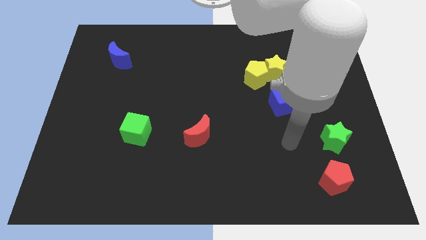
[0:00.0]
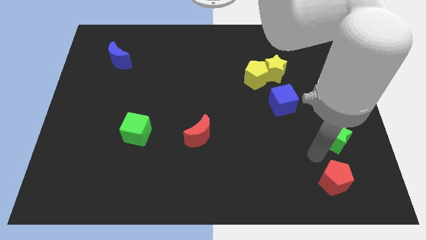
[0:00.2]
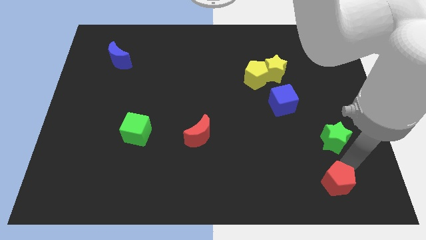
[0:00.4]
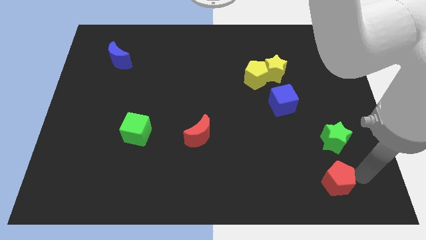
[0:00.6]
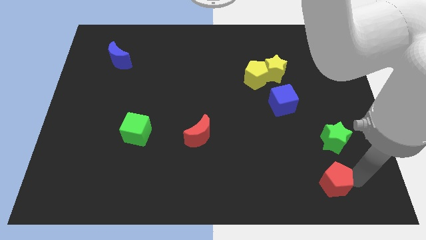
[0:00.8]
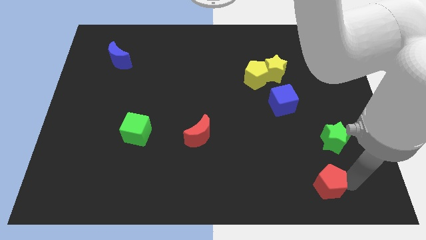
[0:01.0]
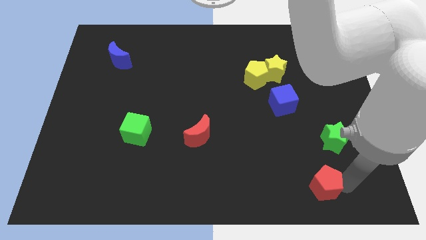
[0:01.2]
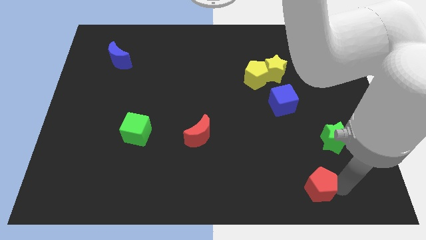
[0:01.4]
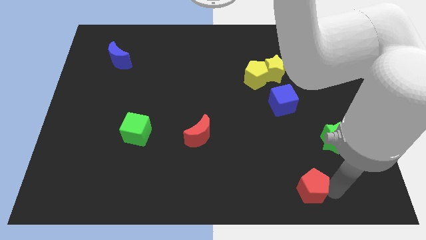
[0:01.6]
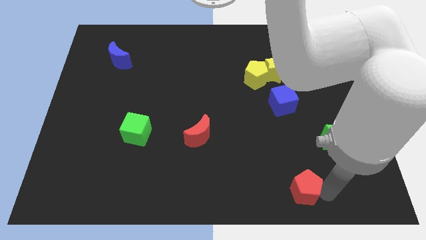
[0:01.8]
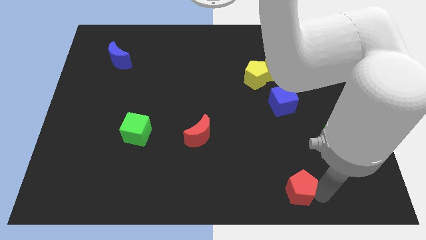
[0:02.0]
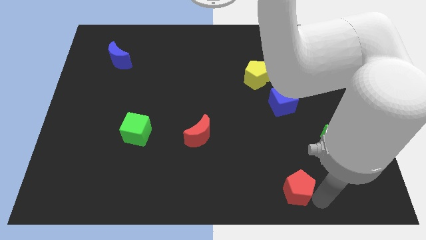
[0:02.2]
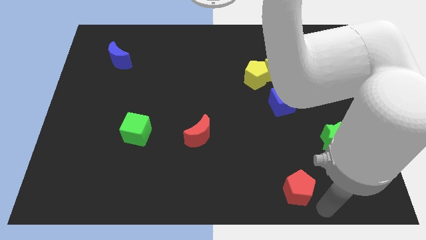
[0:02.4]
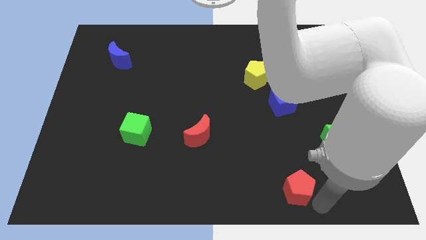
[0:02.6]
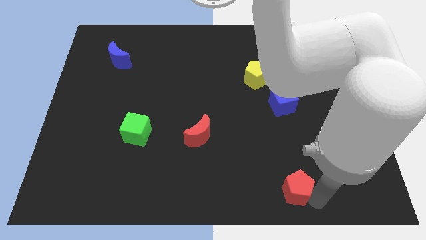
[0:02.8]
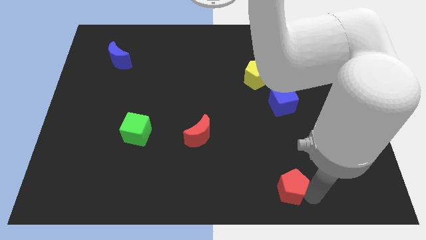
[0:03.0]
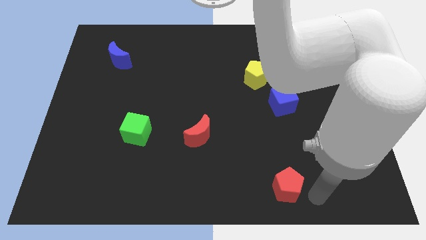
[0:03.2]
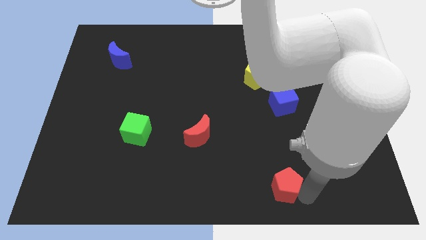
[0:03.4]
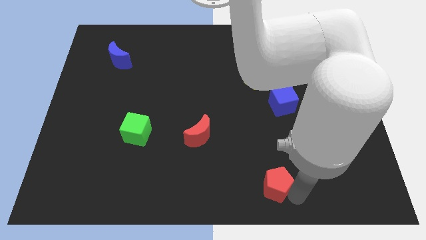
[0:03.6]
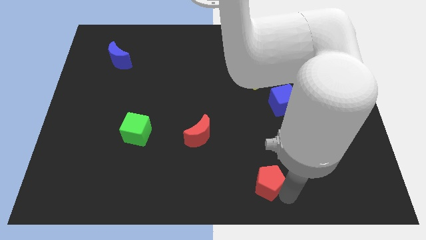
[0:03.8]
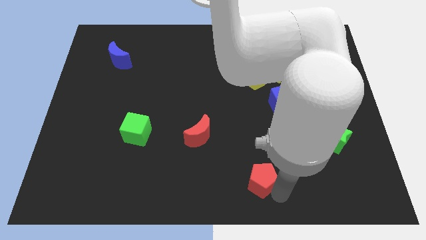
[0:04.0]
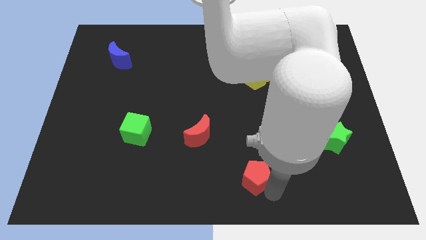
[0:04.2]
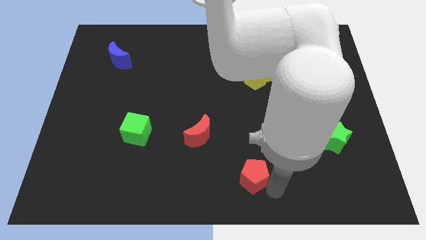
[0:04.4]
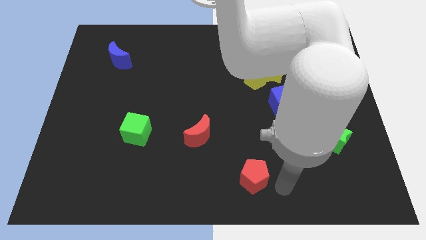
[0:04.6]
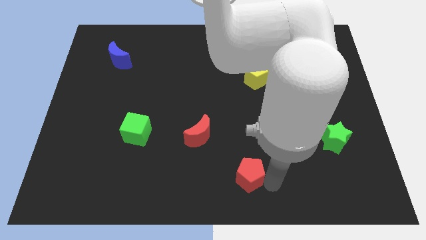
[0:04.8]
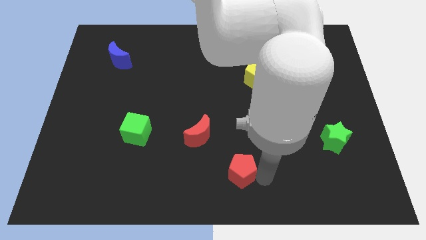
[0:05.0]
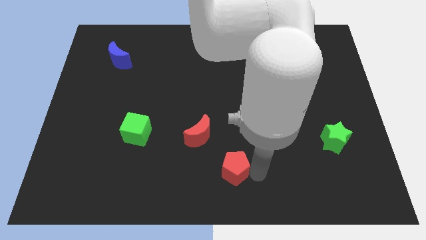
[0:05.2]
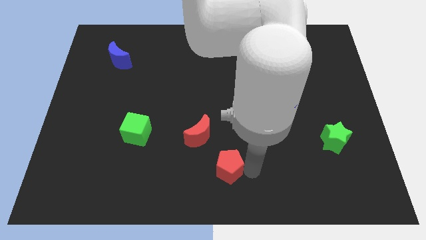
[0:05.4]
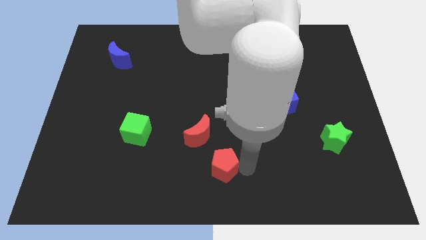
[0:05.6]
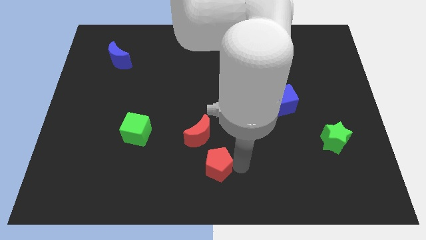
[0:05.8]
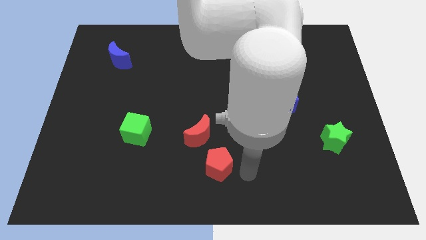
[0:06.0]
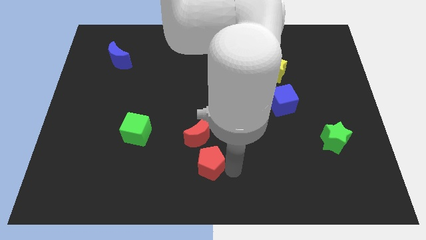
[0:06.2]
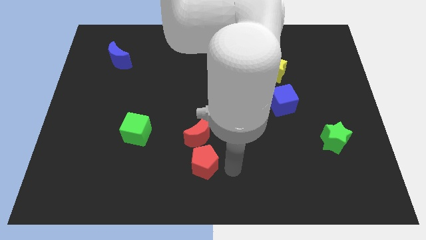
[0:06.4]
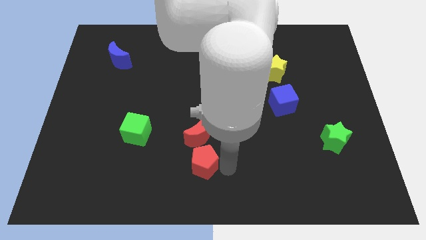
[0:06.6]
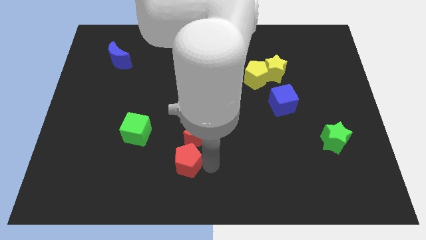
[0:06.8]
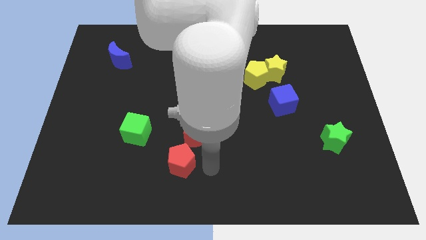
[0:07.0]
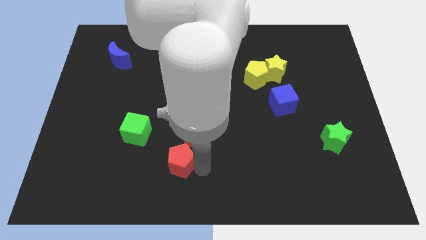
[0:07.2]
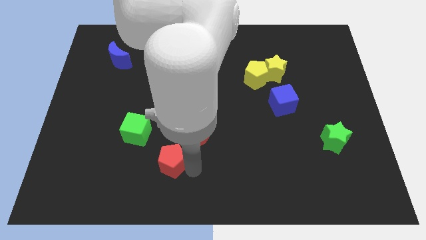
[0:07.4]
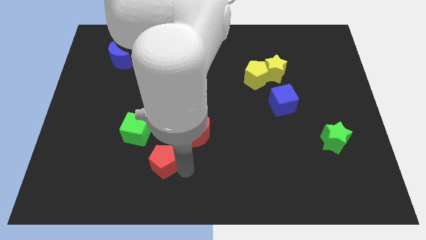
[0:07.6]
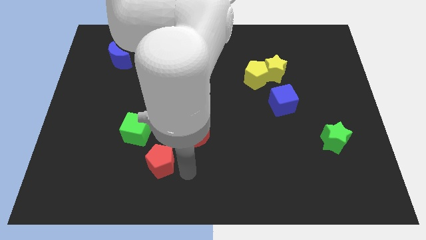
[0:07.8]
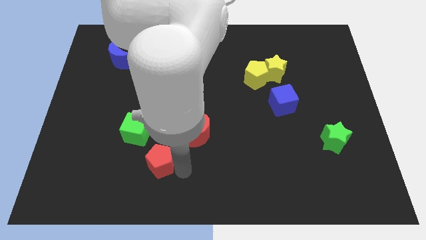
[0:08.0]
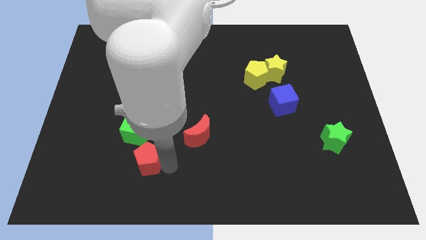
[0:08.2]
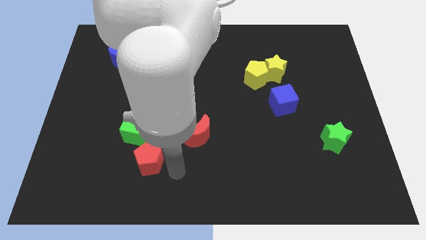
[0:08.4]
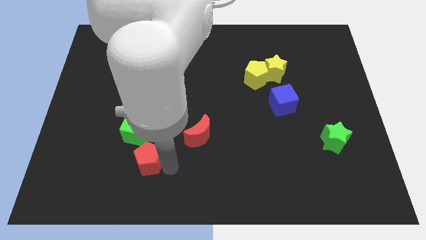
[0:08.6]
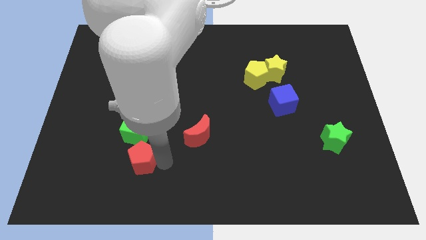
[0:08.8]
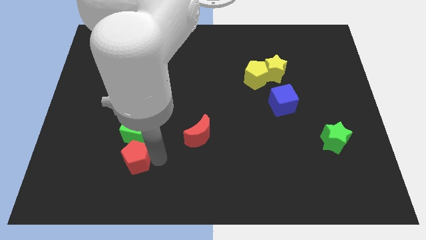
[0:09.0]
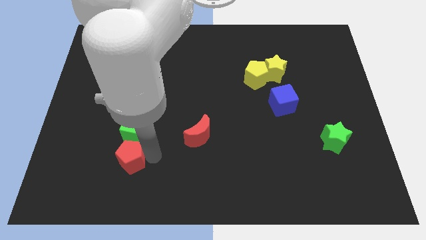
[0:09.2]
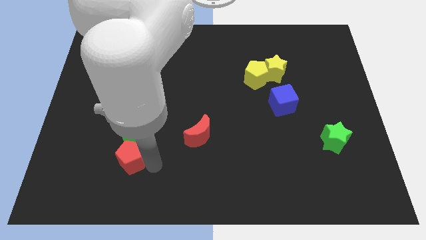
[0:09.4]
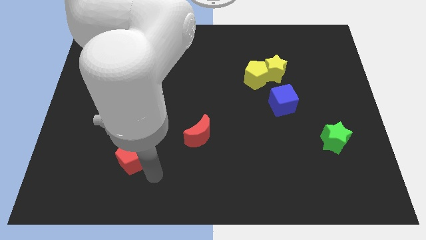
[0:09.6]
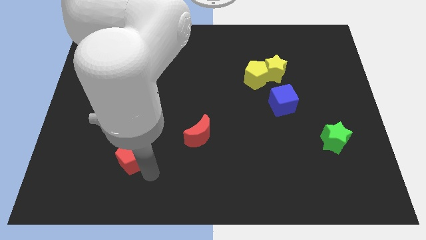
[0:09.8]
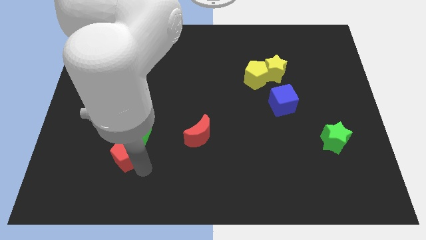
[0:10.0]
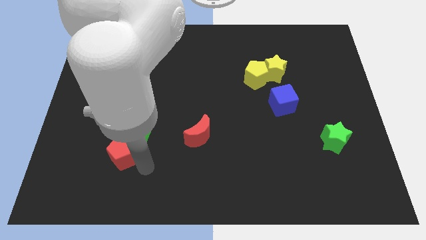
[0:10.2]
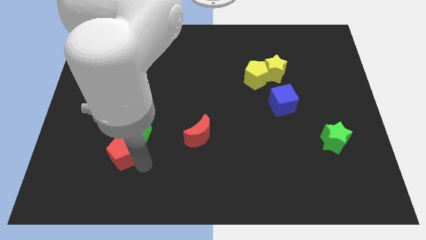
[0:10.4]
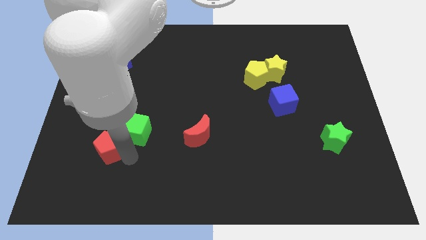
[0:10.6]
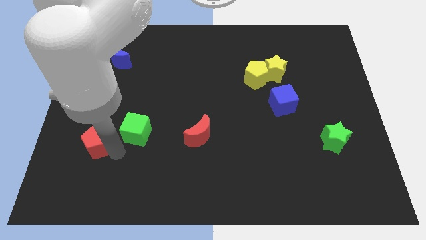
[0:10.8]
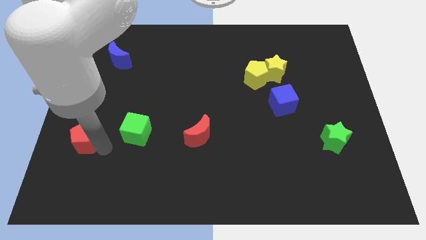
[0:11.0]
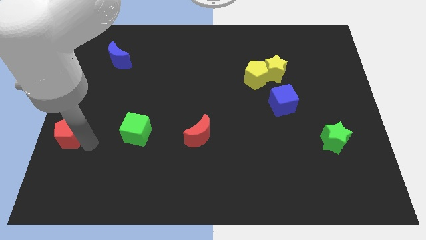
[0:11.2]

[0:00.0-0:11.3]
put the red pentagon to the left side
